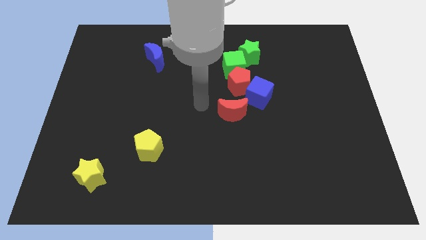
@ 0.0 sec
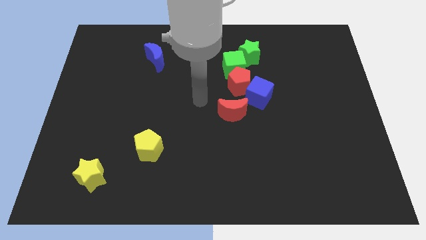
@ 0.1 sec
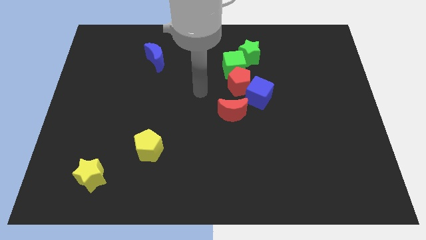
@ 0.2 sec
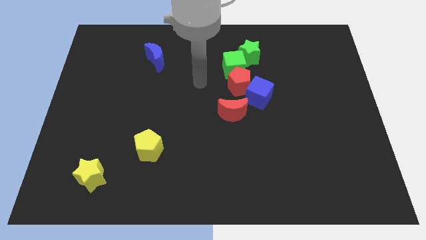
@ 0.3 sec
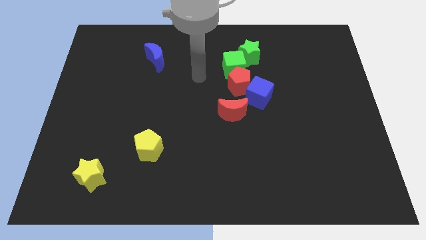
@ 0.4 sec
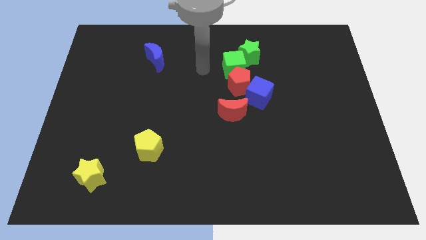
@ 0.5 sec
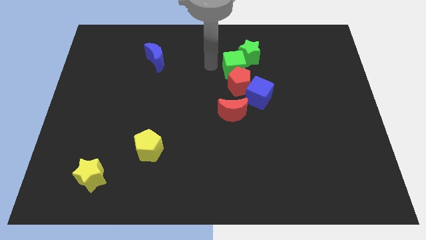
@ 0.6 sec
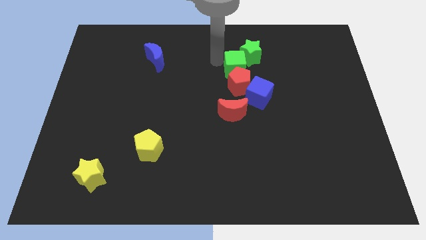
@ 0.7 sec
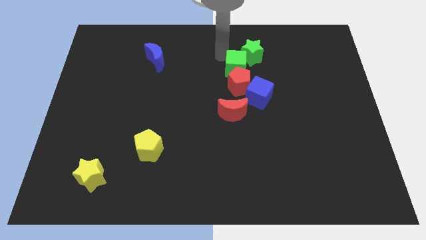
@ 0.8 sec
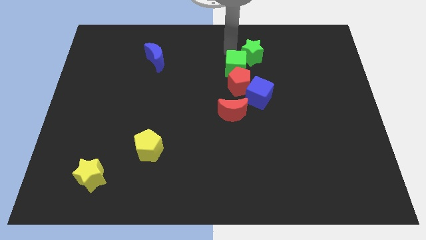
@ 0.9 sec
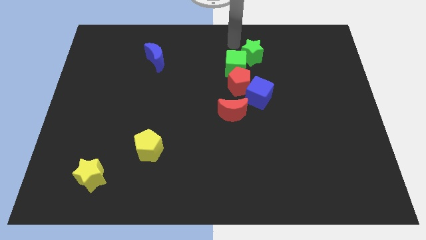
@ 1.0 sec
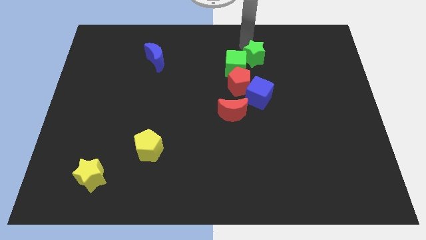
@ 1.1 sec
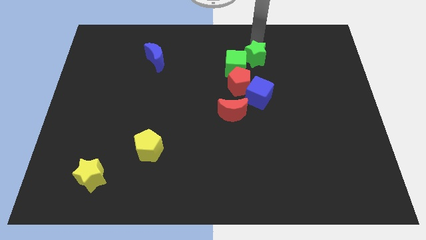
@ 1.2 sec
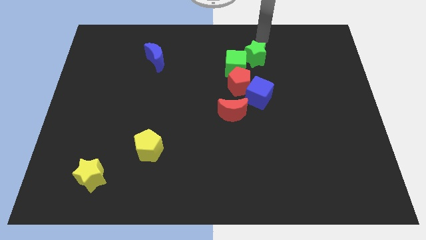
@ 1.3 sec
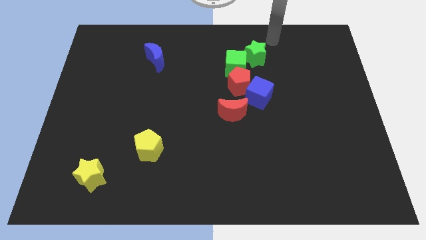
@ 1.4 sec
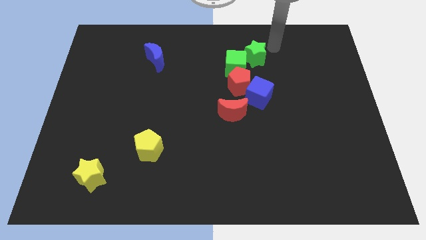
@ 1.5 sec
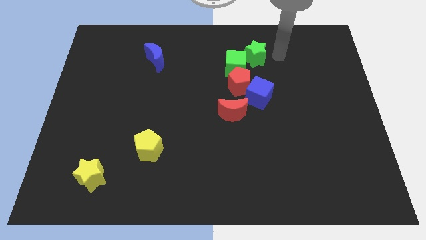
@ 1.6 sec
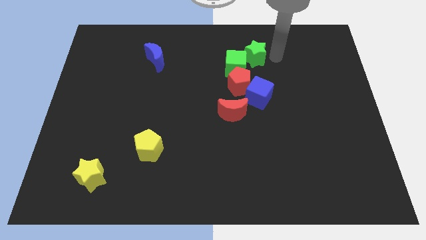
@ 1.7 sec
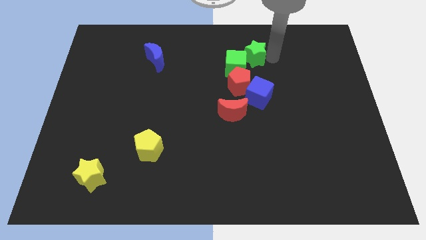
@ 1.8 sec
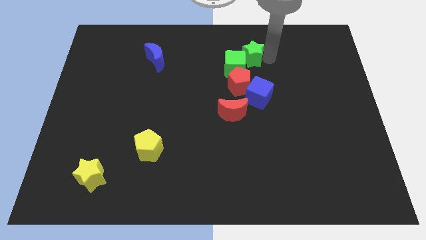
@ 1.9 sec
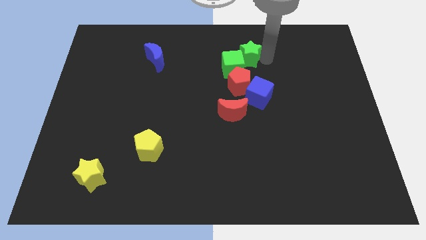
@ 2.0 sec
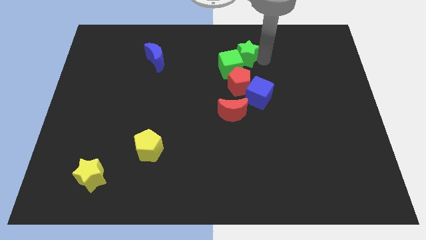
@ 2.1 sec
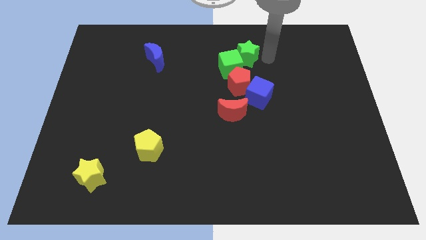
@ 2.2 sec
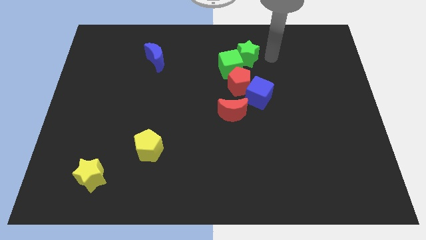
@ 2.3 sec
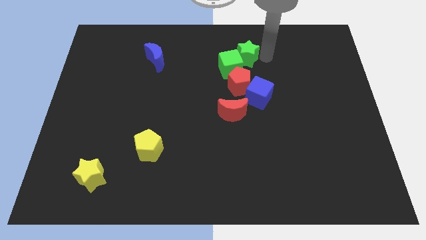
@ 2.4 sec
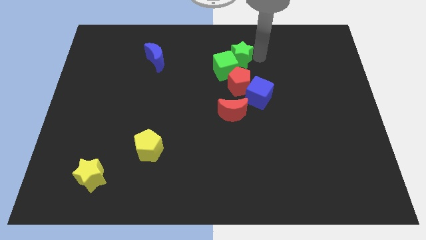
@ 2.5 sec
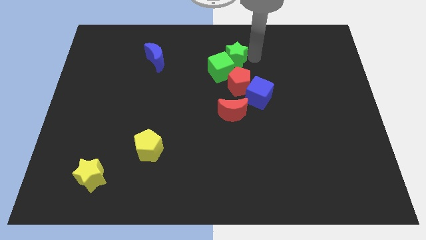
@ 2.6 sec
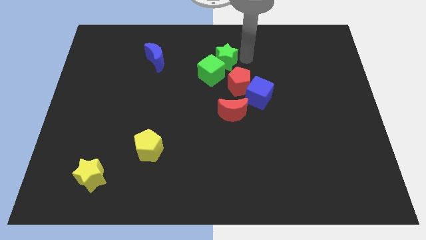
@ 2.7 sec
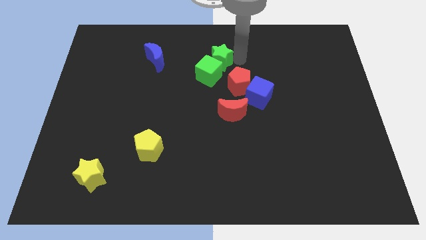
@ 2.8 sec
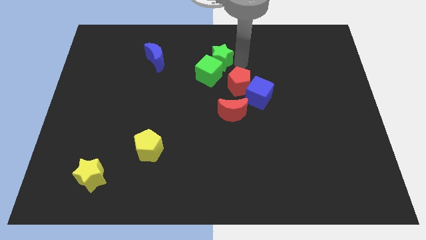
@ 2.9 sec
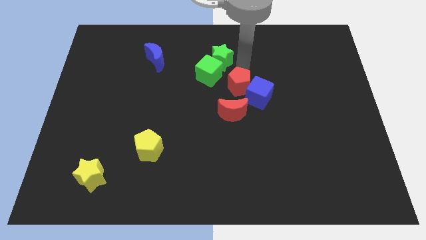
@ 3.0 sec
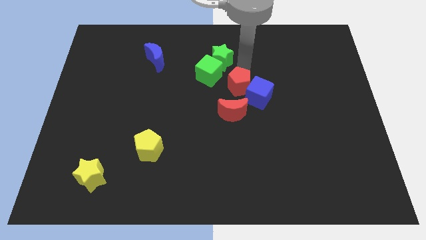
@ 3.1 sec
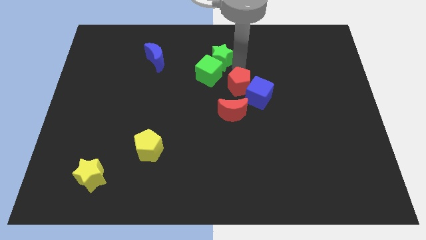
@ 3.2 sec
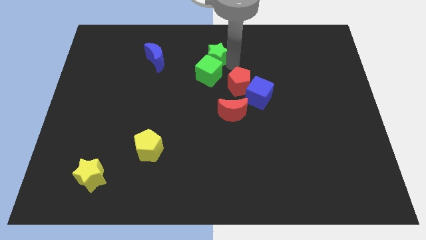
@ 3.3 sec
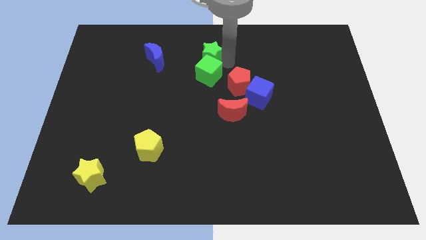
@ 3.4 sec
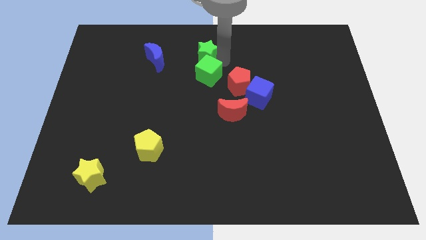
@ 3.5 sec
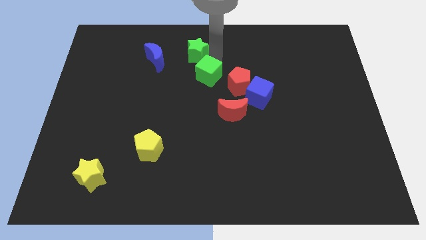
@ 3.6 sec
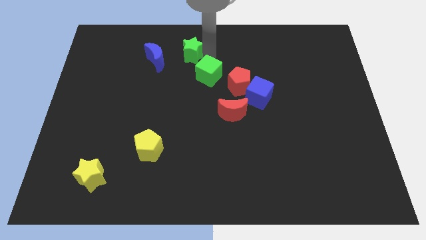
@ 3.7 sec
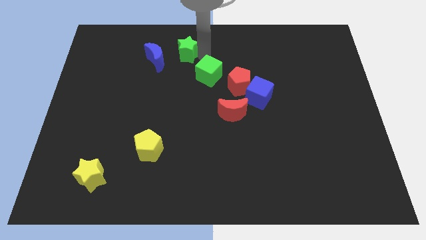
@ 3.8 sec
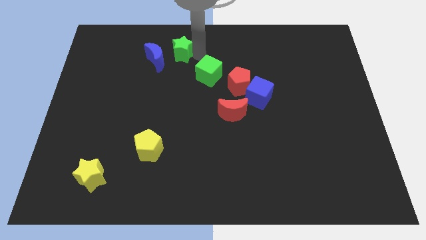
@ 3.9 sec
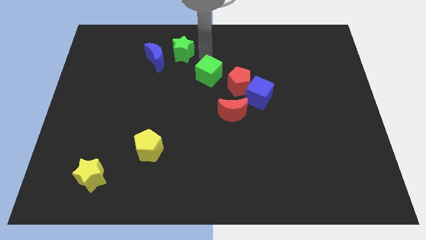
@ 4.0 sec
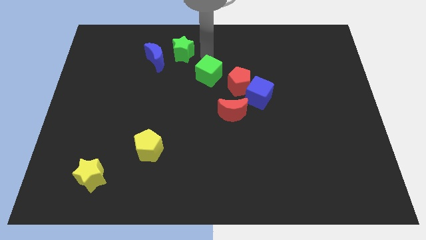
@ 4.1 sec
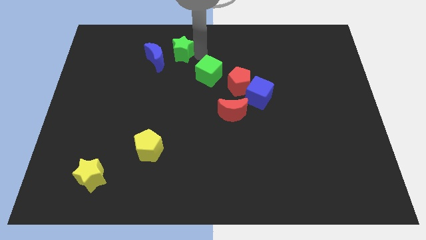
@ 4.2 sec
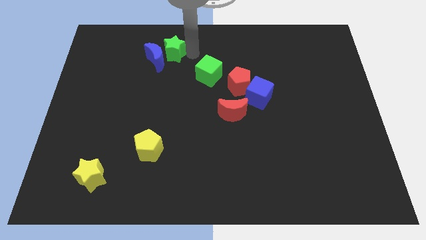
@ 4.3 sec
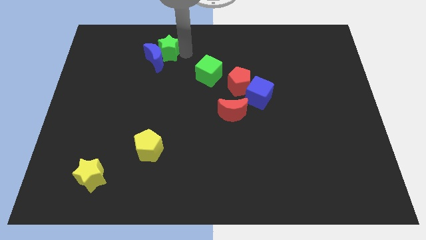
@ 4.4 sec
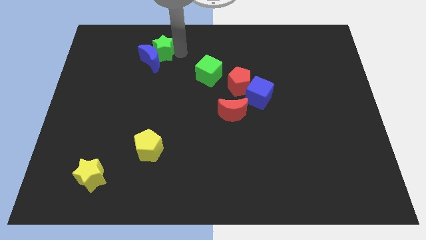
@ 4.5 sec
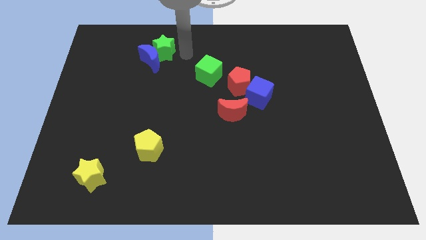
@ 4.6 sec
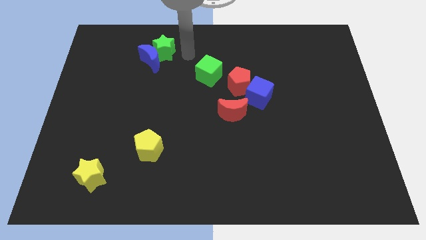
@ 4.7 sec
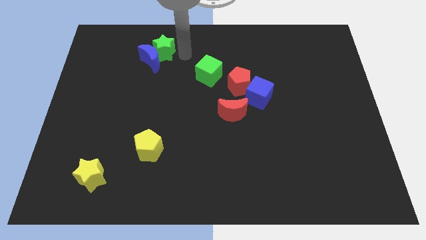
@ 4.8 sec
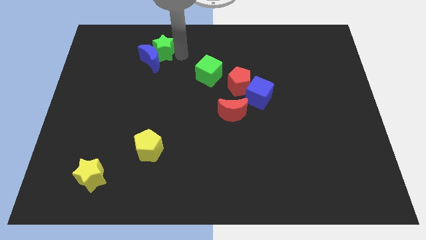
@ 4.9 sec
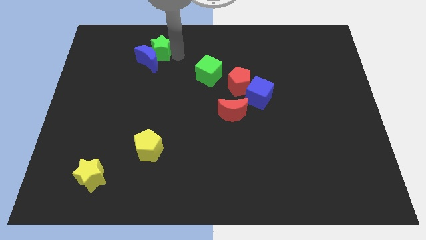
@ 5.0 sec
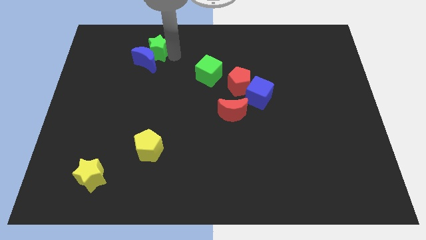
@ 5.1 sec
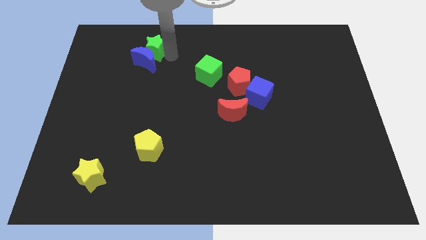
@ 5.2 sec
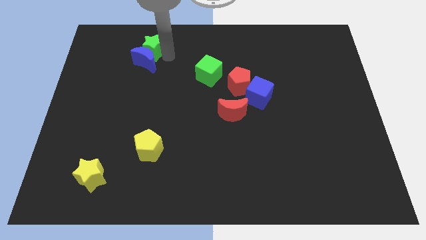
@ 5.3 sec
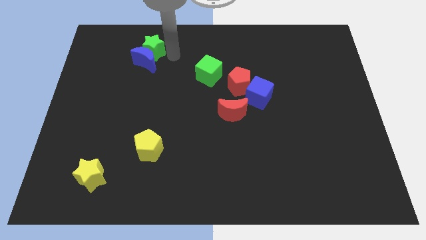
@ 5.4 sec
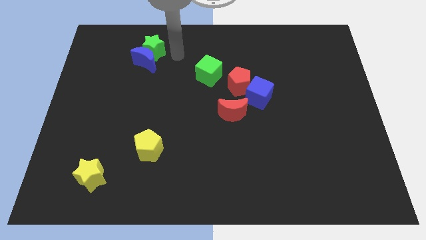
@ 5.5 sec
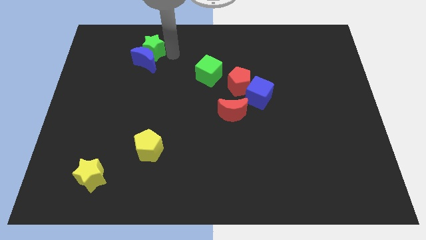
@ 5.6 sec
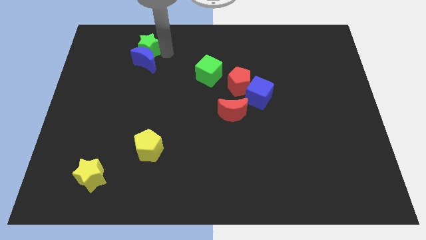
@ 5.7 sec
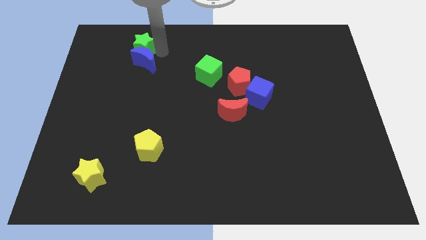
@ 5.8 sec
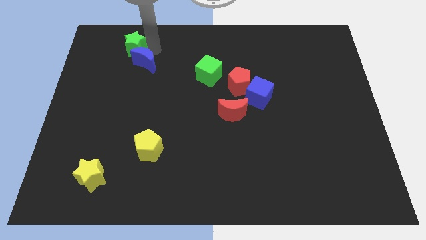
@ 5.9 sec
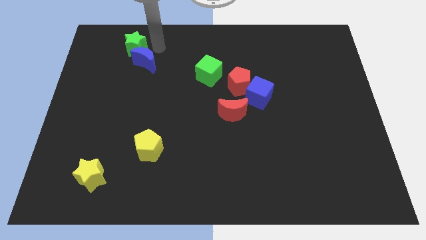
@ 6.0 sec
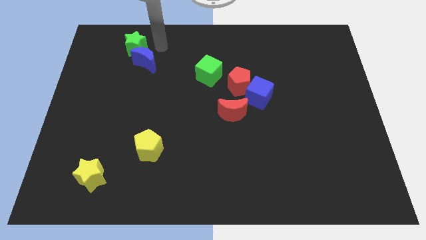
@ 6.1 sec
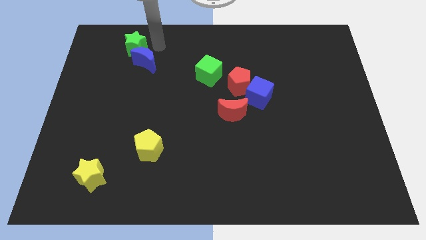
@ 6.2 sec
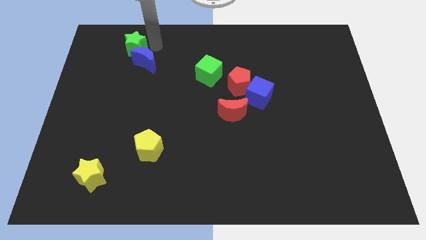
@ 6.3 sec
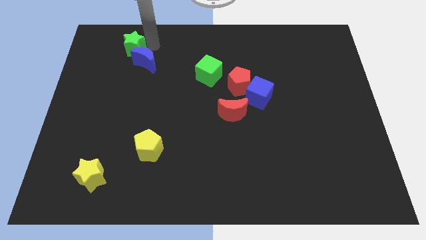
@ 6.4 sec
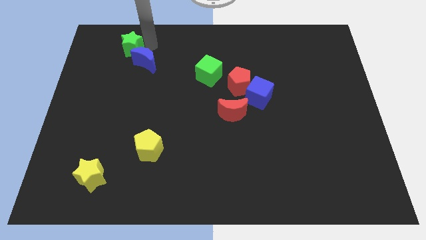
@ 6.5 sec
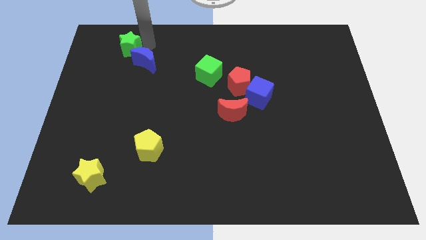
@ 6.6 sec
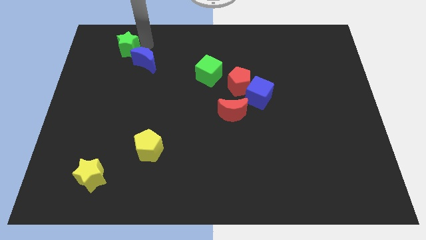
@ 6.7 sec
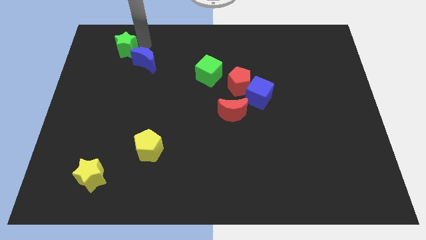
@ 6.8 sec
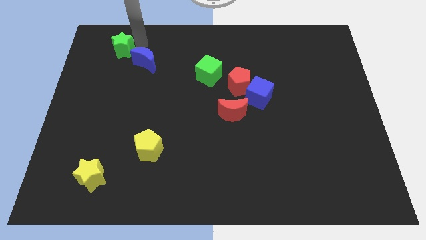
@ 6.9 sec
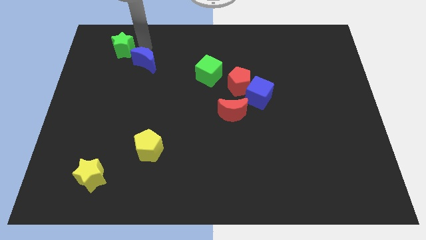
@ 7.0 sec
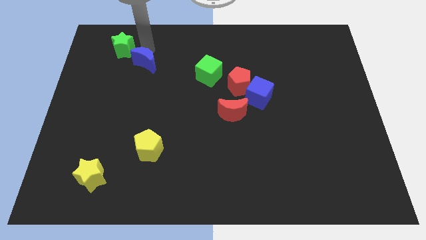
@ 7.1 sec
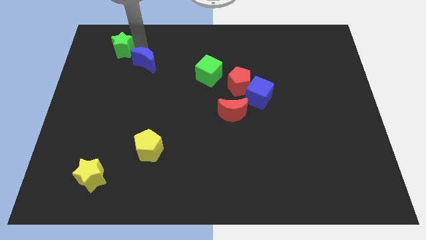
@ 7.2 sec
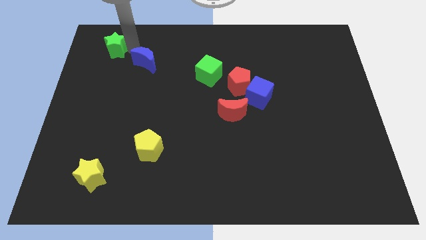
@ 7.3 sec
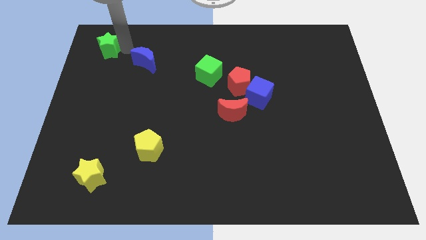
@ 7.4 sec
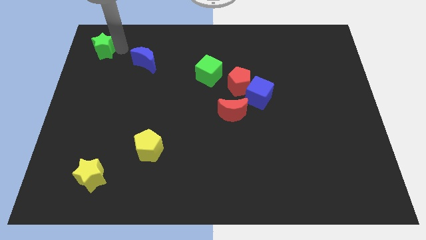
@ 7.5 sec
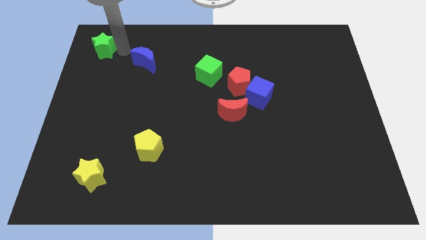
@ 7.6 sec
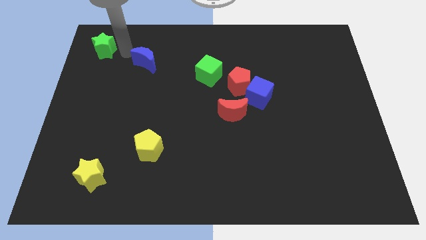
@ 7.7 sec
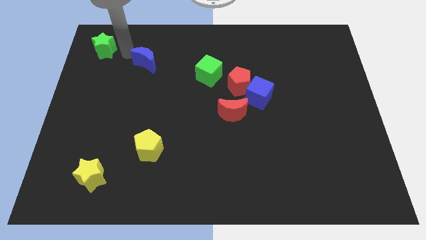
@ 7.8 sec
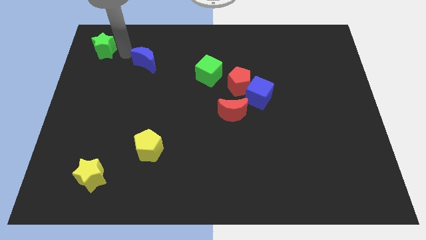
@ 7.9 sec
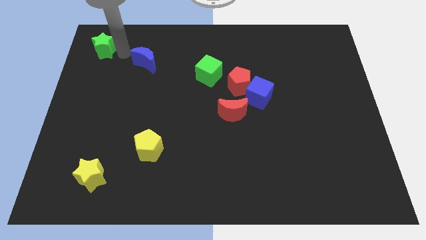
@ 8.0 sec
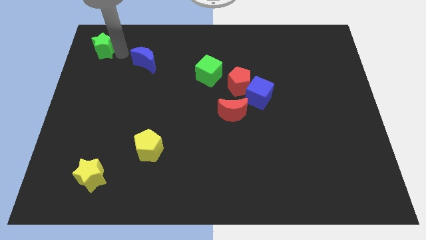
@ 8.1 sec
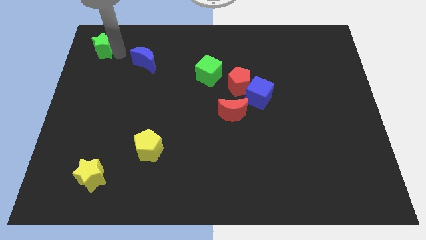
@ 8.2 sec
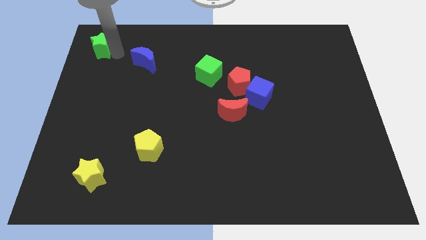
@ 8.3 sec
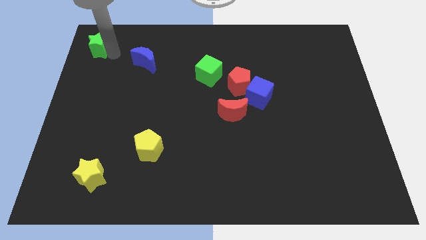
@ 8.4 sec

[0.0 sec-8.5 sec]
slide the green star to the top left
